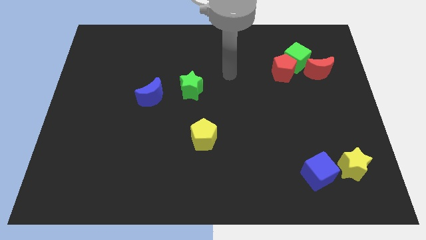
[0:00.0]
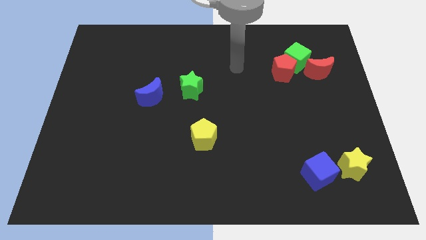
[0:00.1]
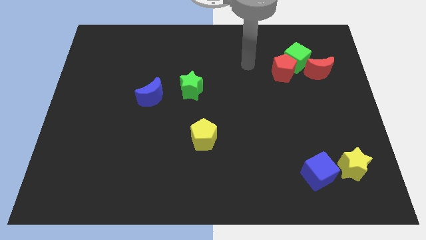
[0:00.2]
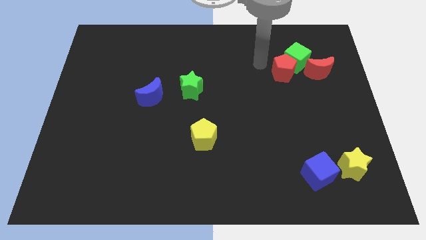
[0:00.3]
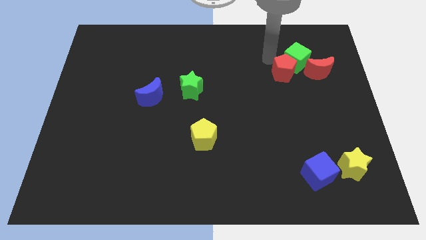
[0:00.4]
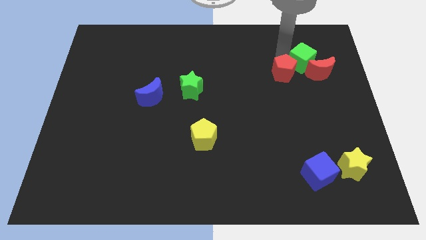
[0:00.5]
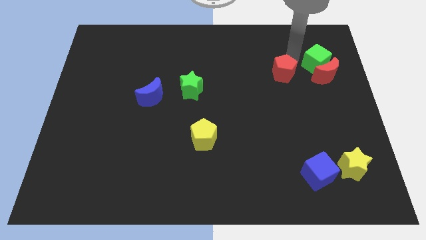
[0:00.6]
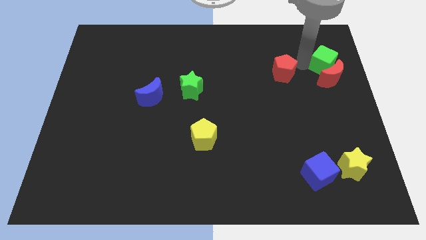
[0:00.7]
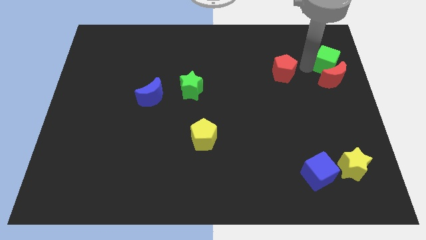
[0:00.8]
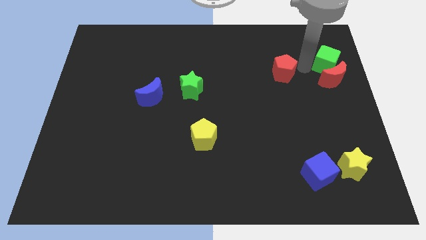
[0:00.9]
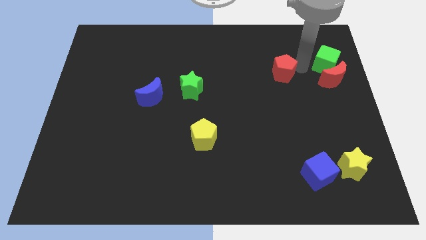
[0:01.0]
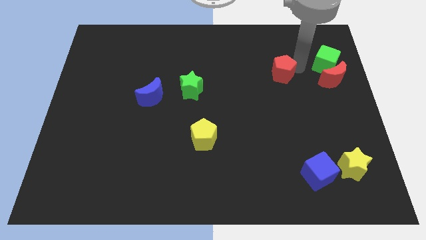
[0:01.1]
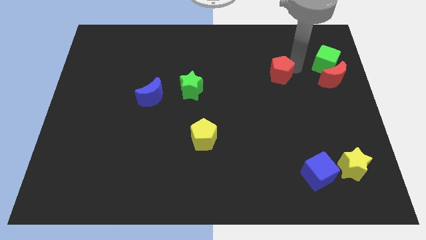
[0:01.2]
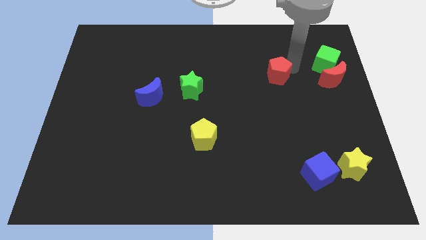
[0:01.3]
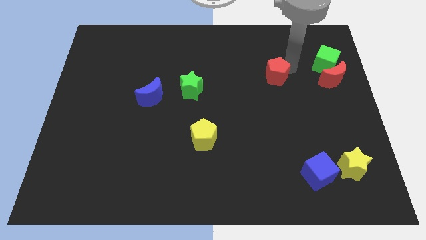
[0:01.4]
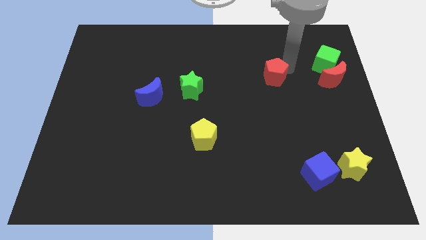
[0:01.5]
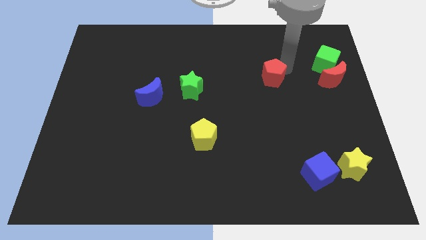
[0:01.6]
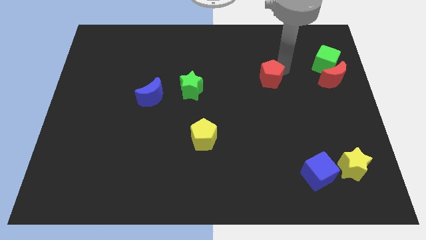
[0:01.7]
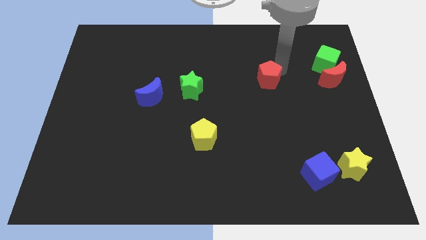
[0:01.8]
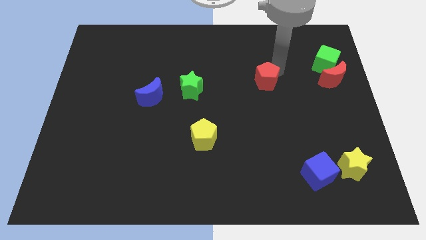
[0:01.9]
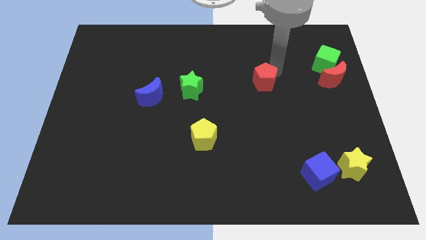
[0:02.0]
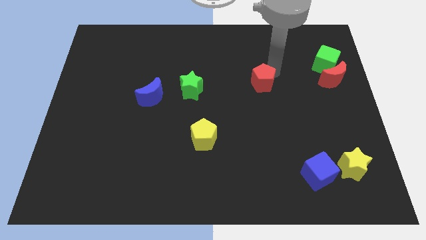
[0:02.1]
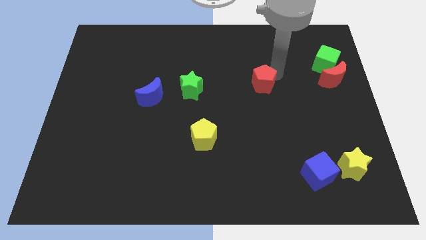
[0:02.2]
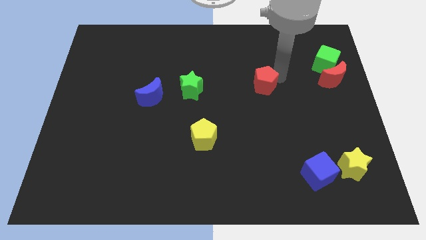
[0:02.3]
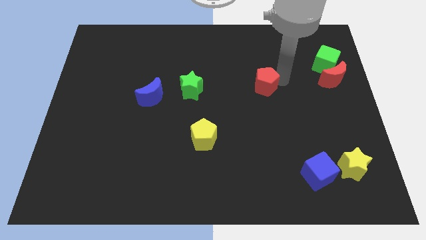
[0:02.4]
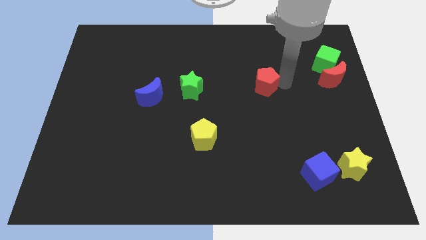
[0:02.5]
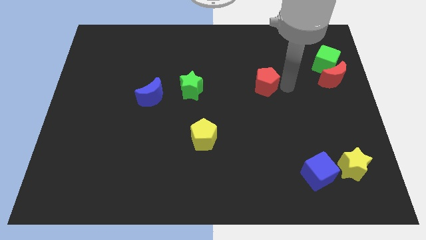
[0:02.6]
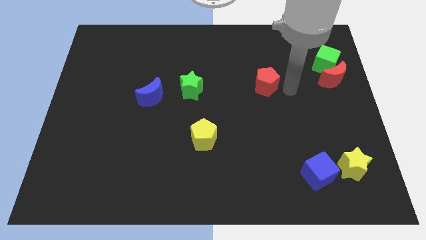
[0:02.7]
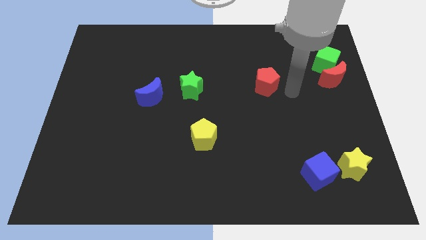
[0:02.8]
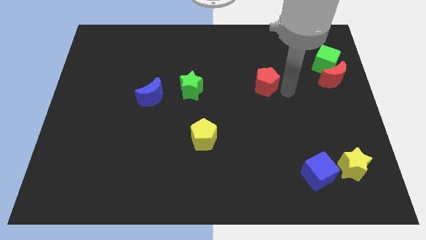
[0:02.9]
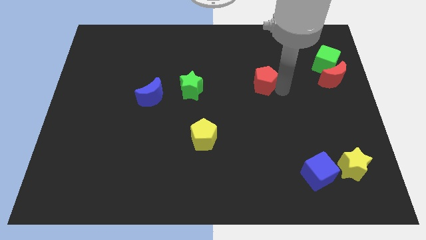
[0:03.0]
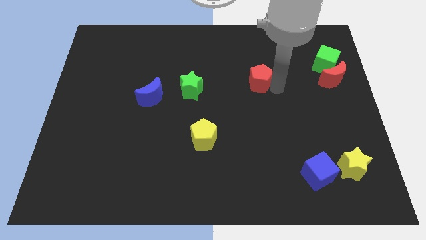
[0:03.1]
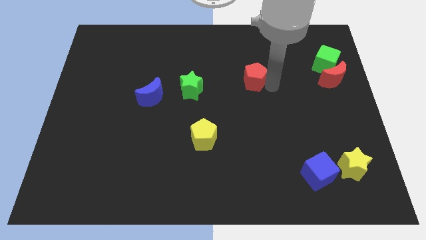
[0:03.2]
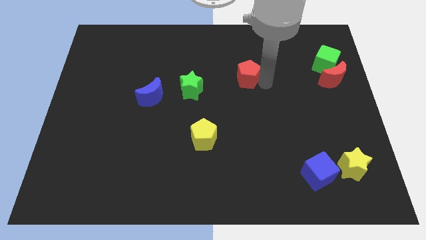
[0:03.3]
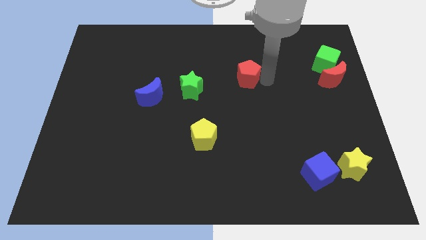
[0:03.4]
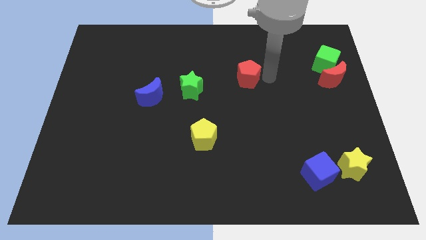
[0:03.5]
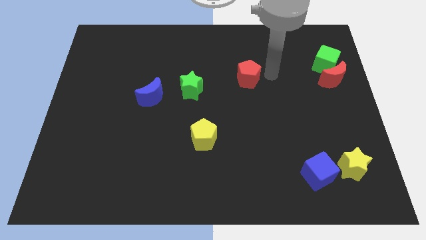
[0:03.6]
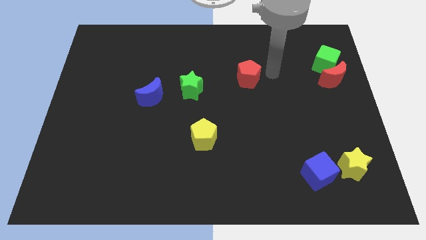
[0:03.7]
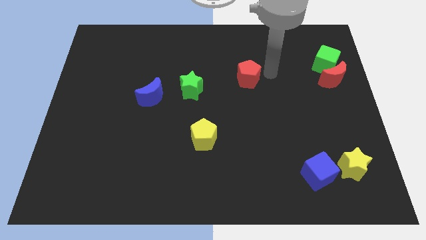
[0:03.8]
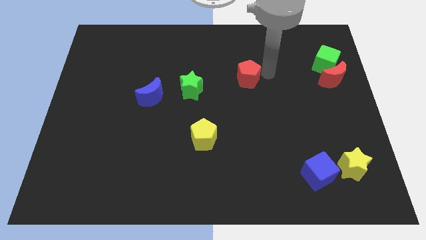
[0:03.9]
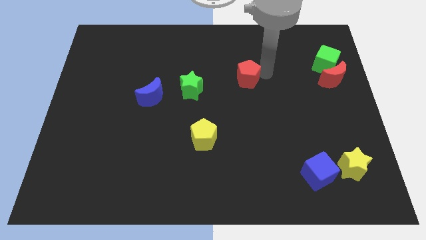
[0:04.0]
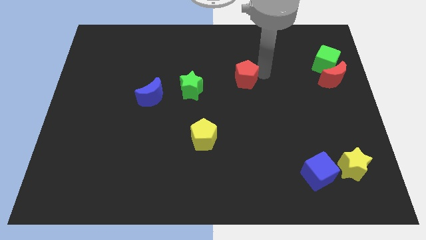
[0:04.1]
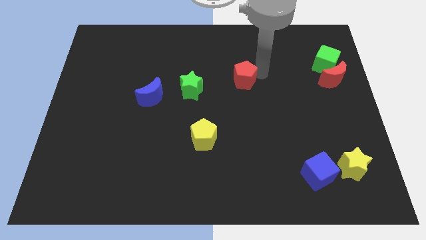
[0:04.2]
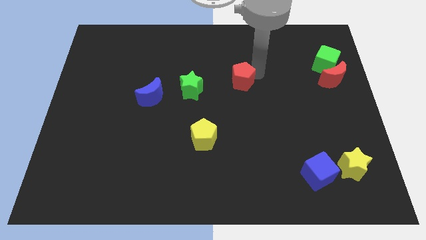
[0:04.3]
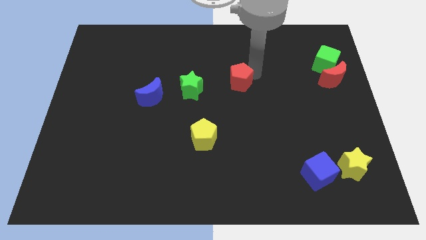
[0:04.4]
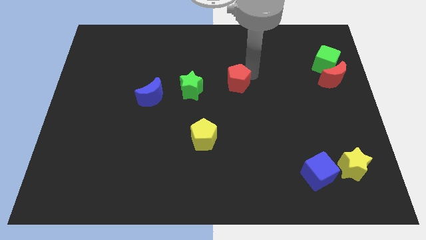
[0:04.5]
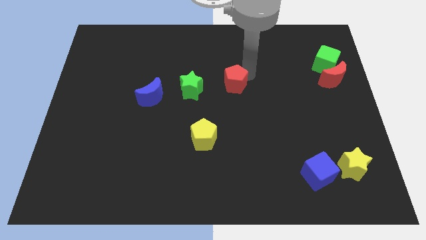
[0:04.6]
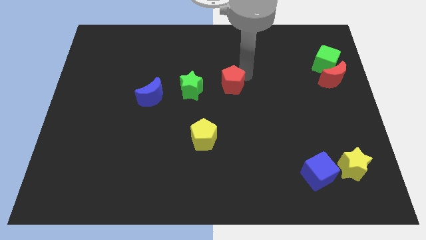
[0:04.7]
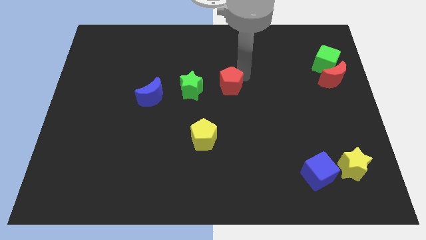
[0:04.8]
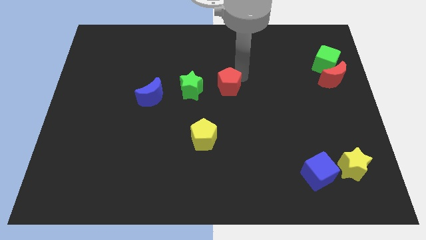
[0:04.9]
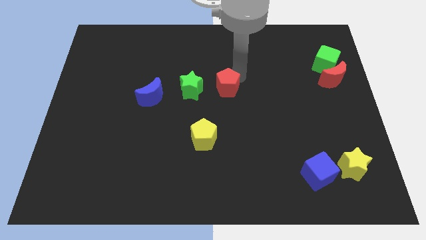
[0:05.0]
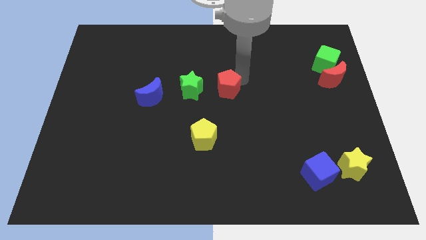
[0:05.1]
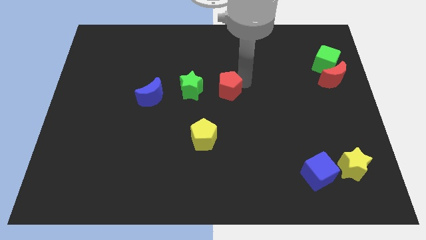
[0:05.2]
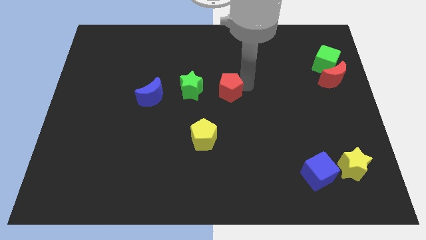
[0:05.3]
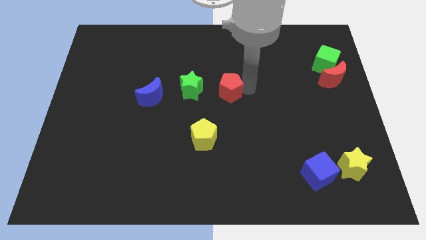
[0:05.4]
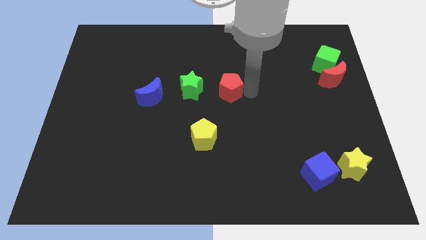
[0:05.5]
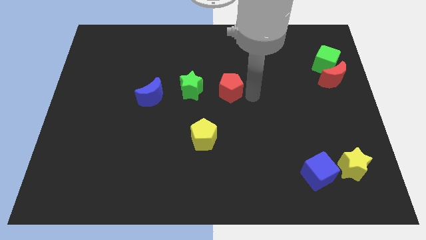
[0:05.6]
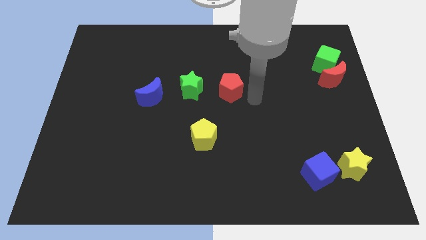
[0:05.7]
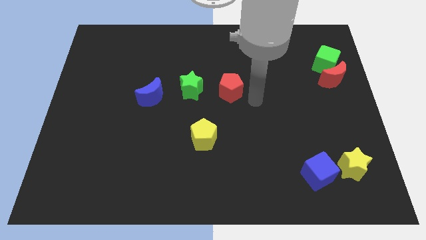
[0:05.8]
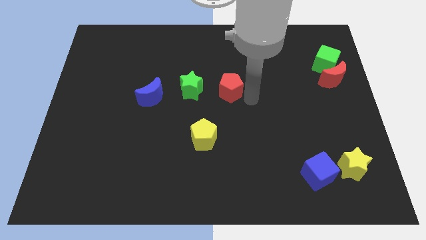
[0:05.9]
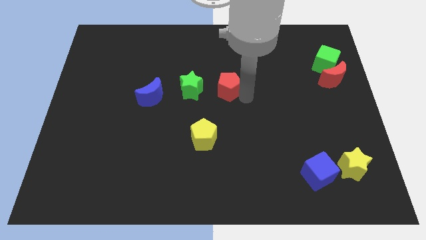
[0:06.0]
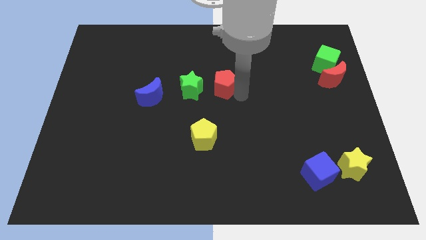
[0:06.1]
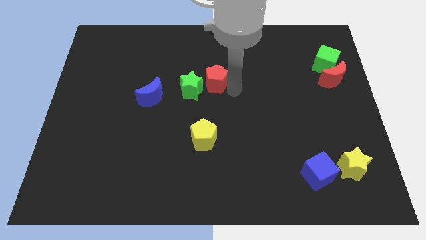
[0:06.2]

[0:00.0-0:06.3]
put the red pentagon towards the green star
